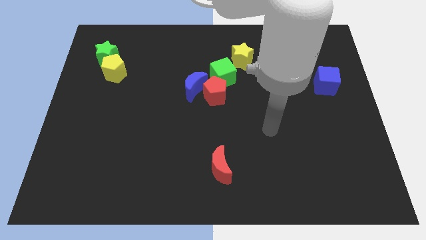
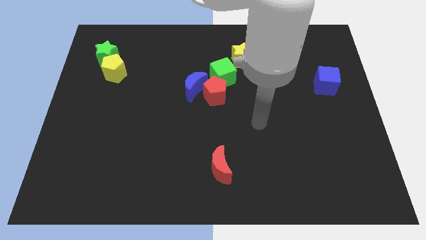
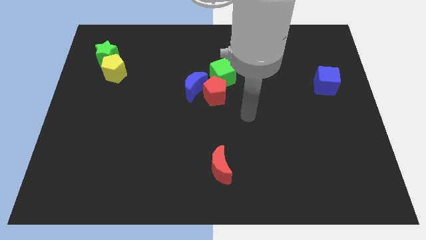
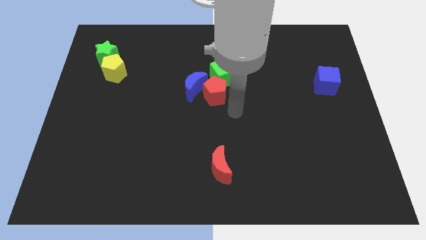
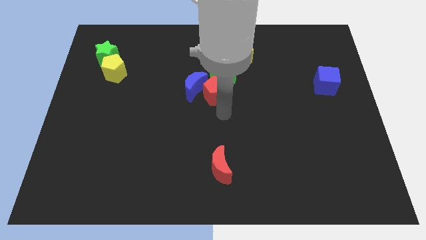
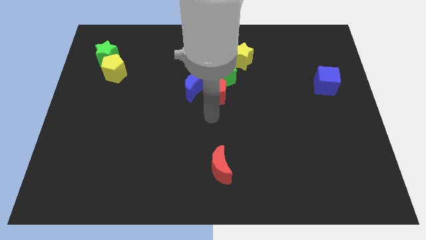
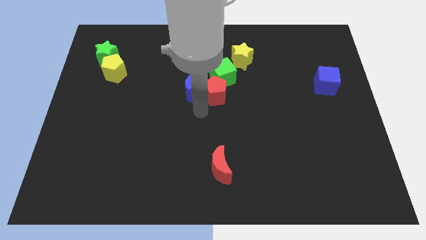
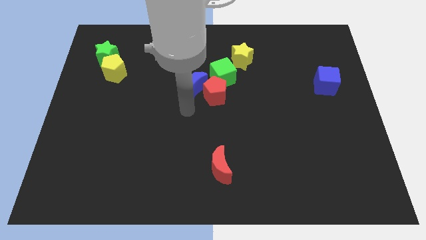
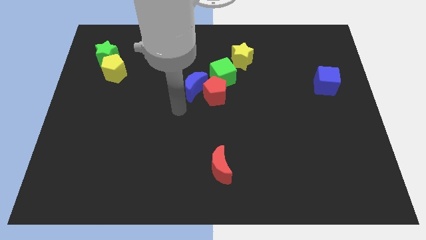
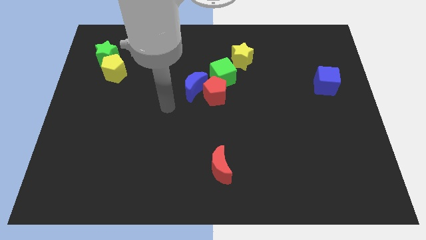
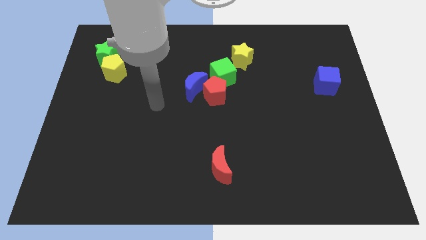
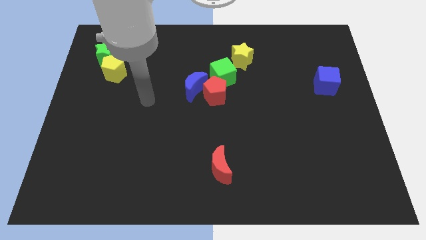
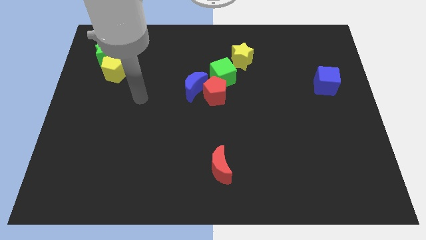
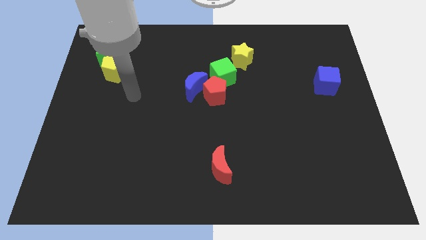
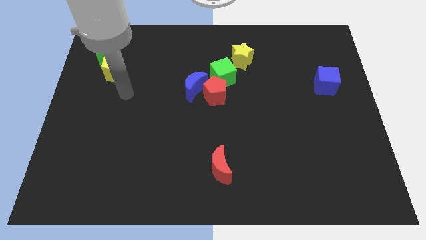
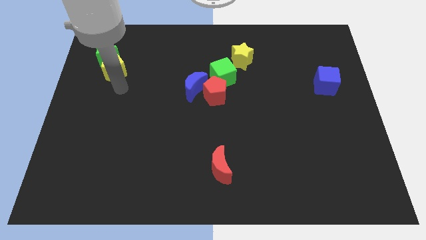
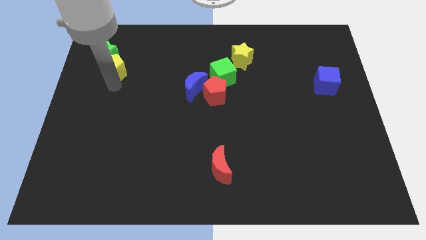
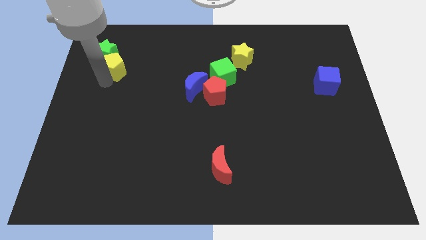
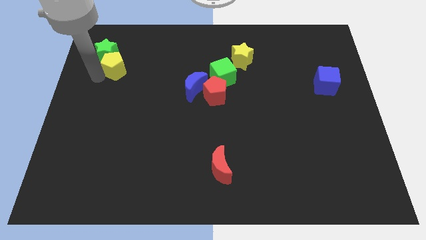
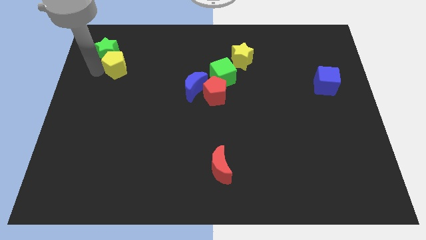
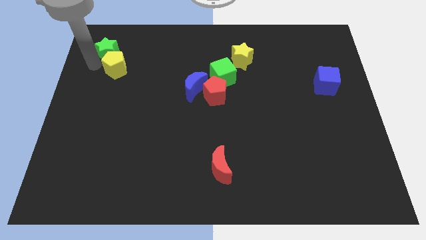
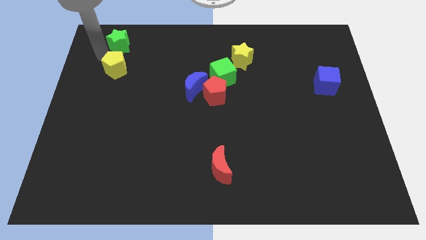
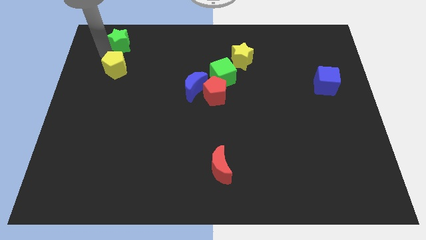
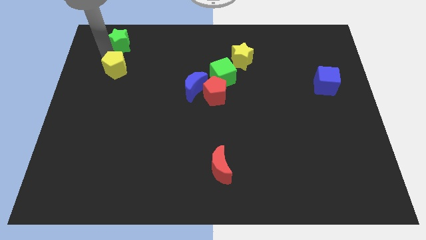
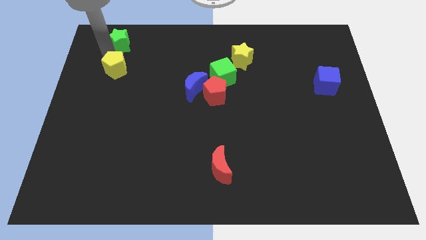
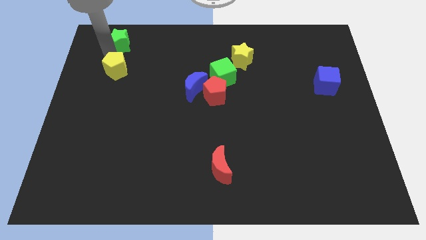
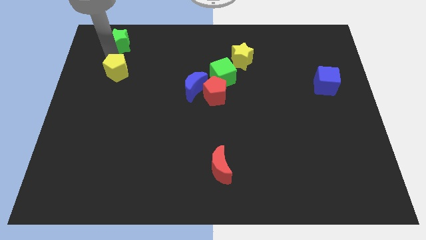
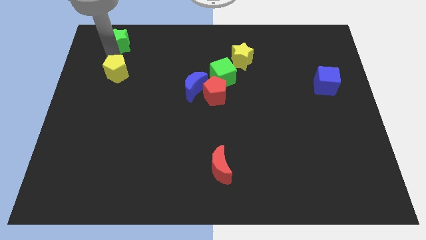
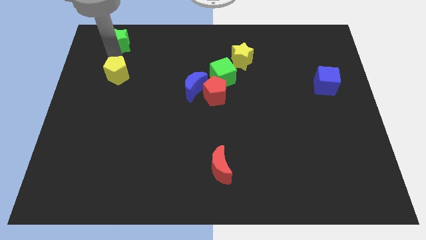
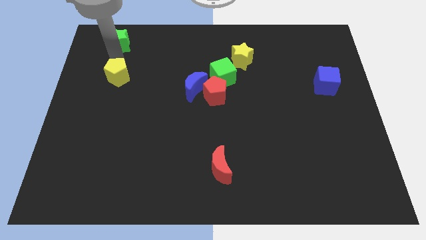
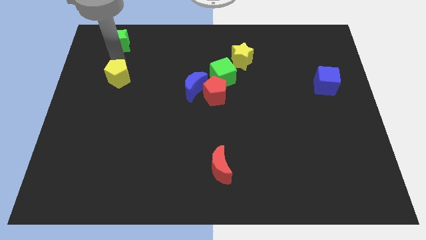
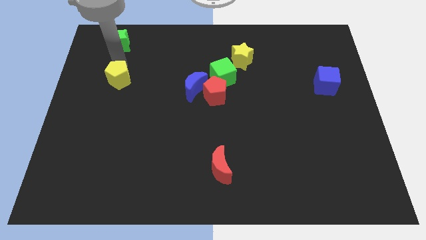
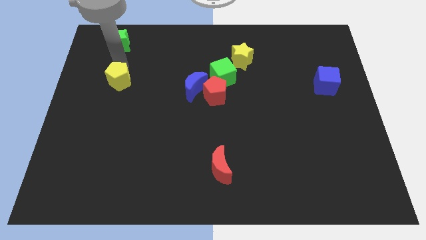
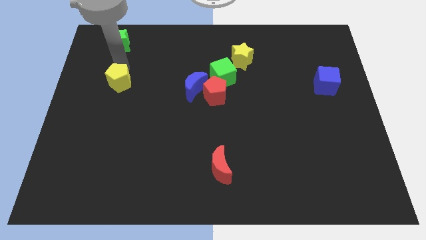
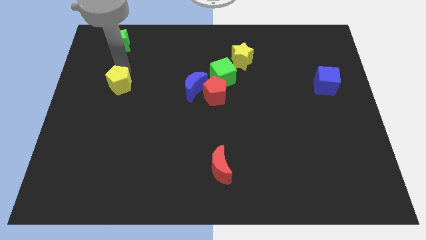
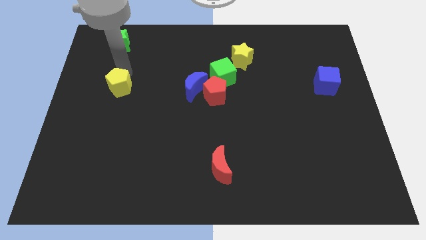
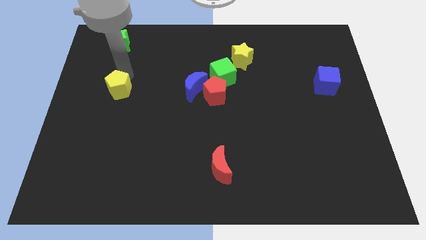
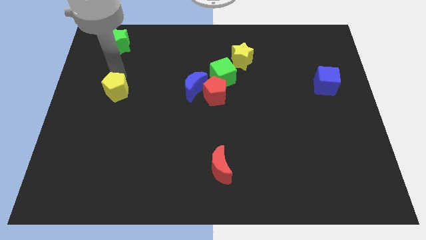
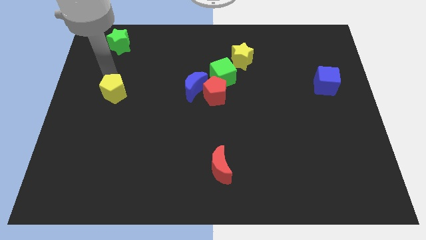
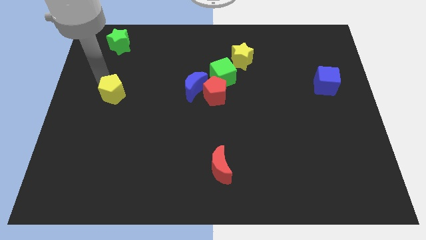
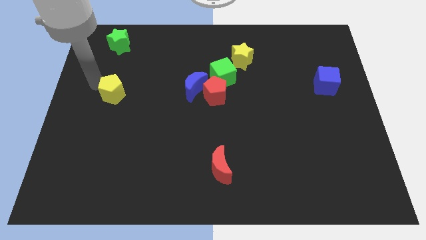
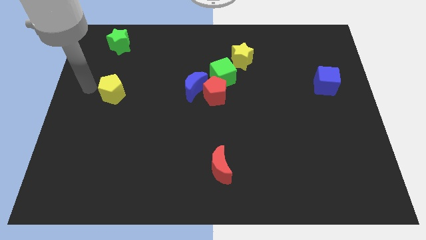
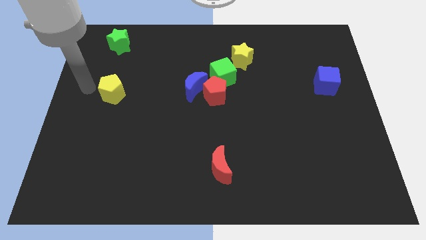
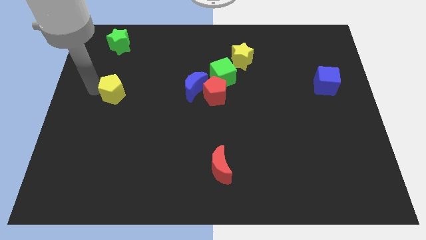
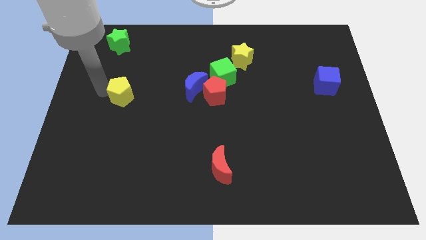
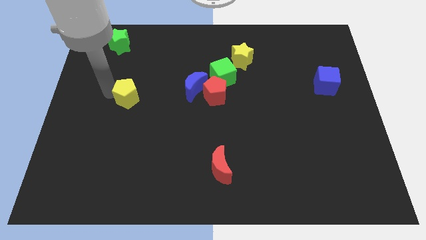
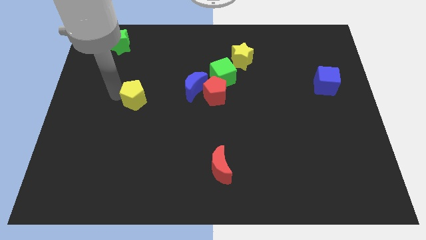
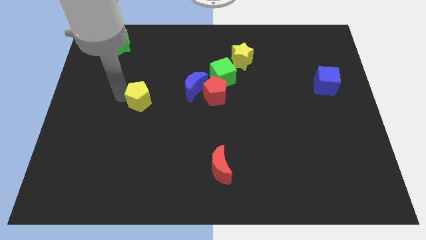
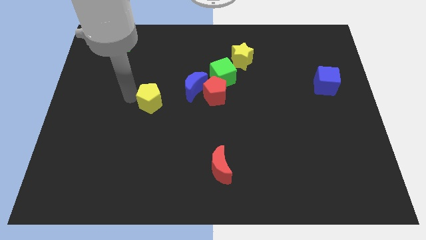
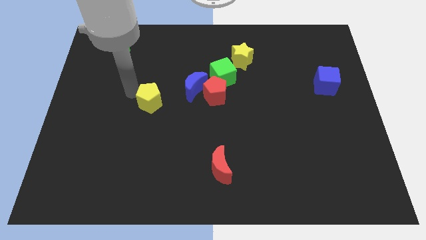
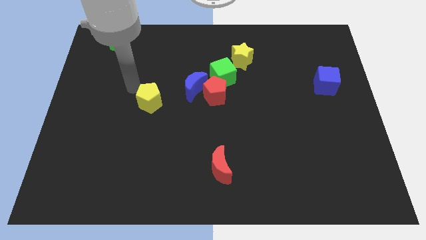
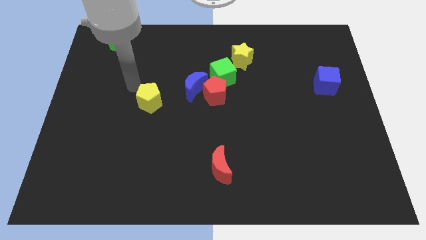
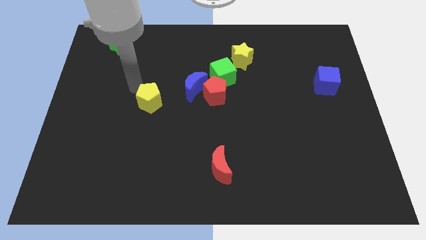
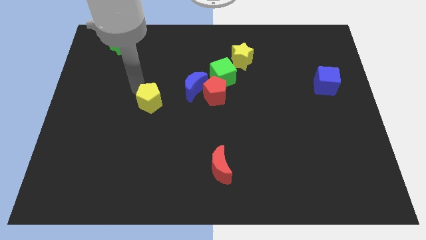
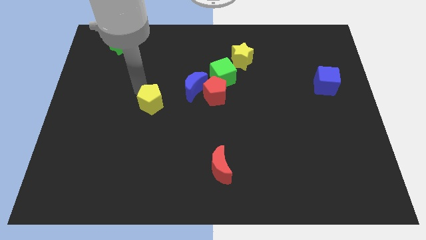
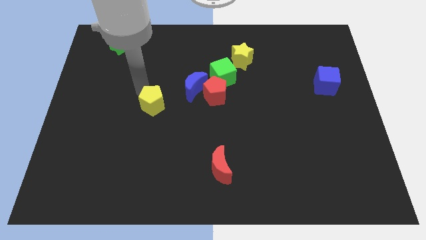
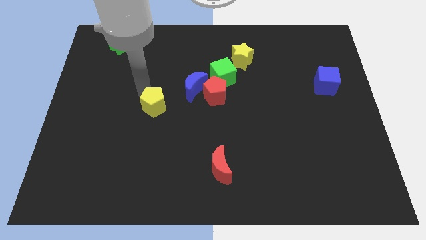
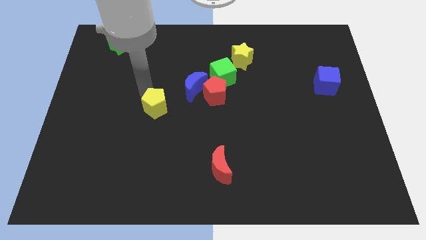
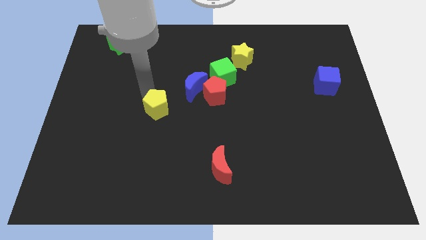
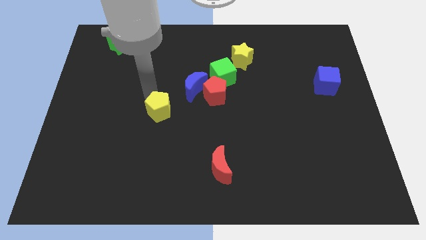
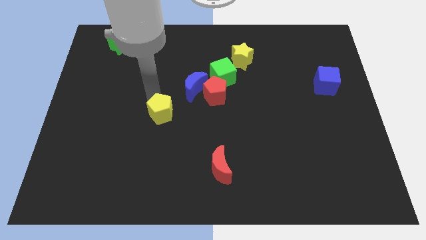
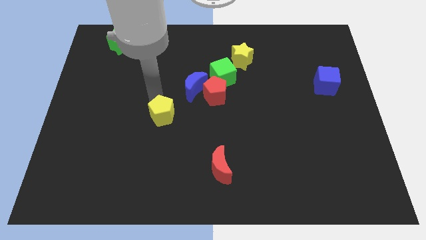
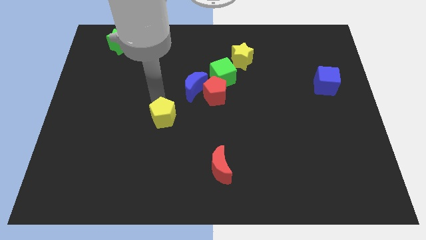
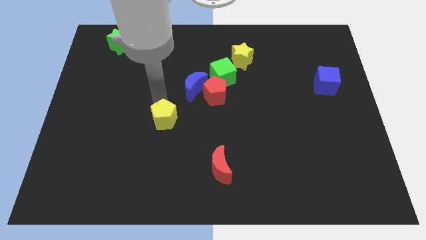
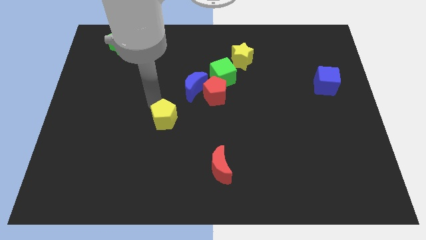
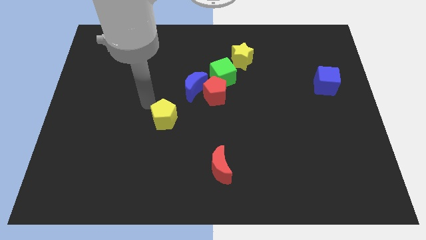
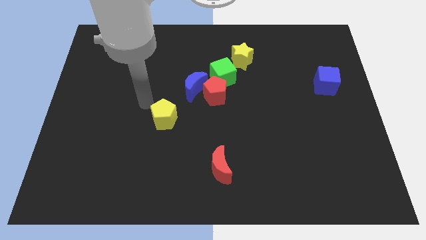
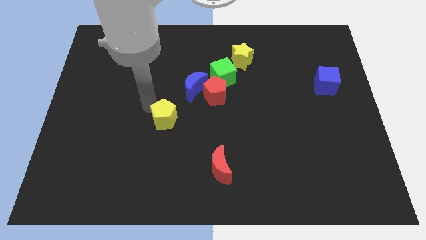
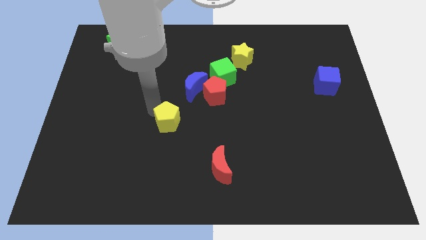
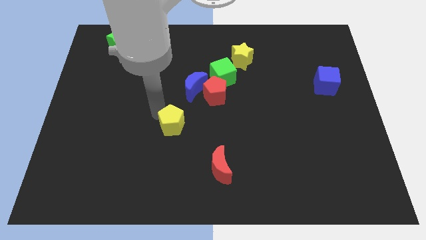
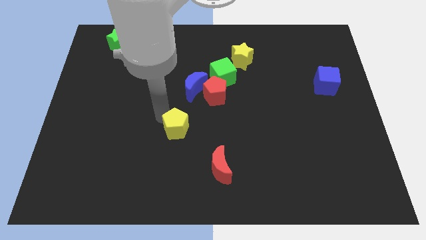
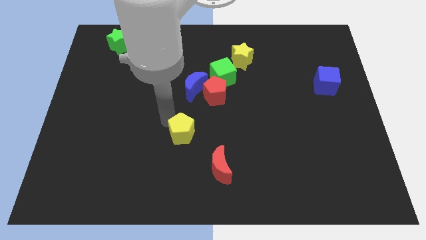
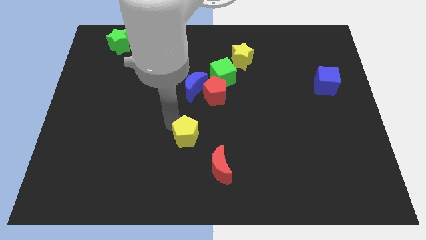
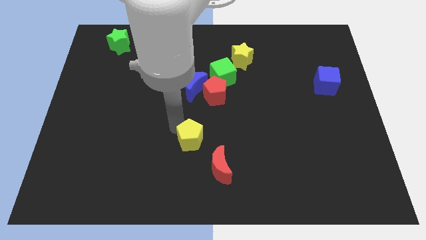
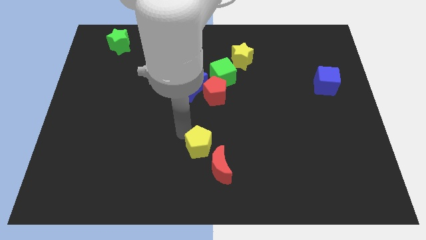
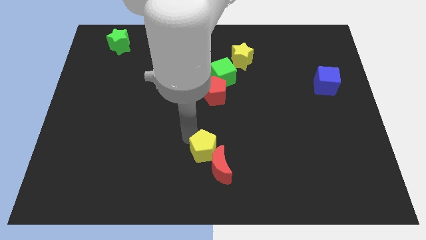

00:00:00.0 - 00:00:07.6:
slide the yellow pentagon towards the red moon

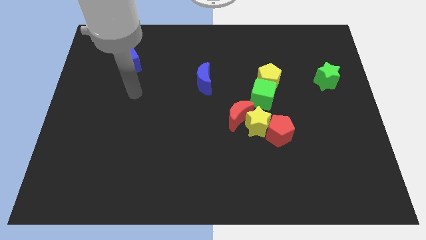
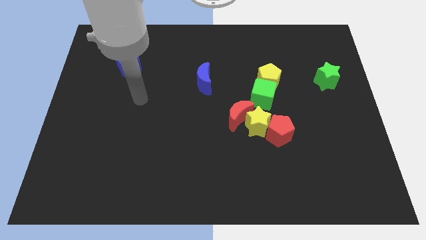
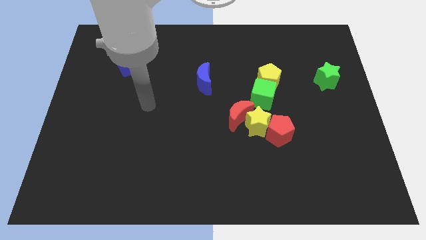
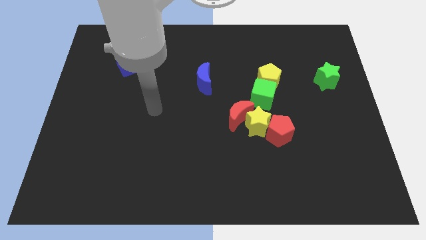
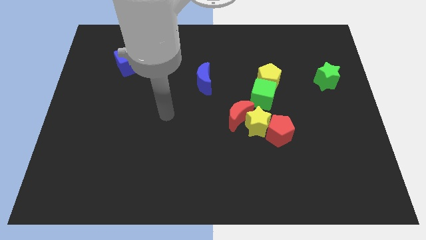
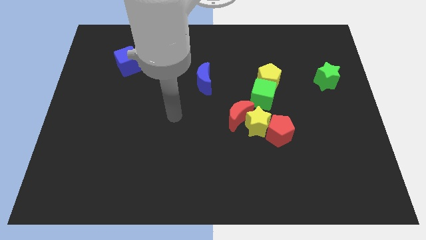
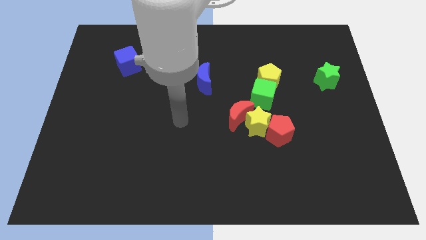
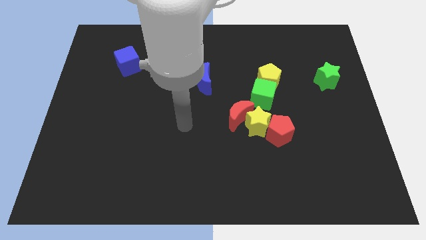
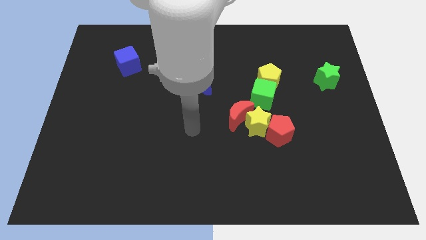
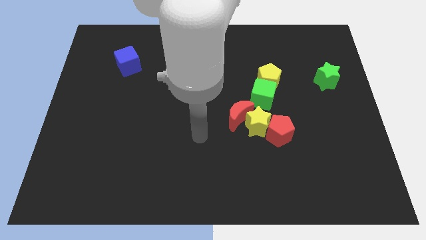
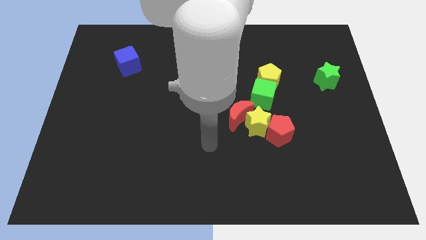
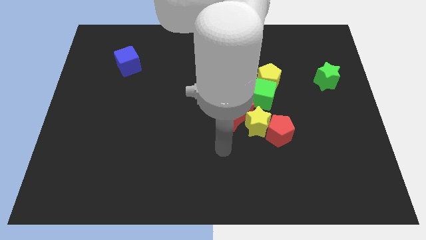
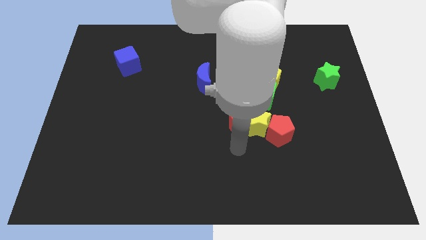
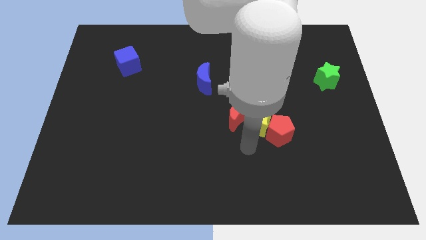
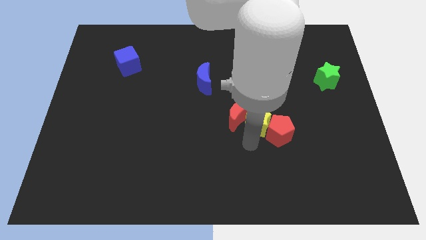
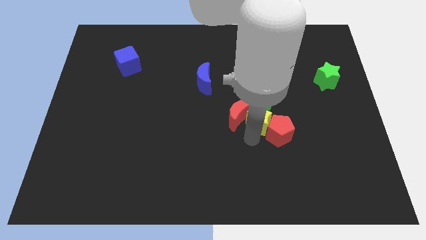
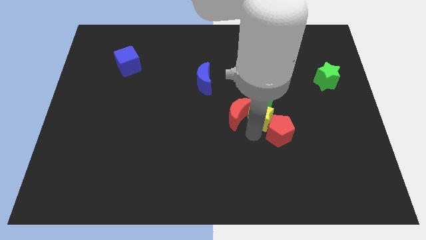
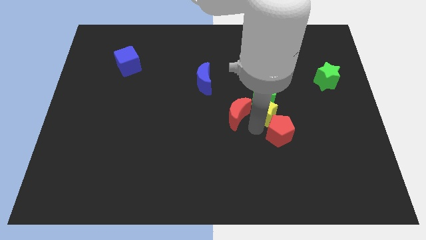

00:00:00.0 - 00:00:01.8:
push the yellow star to the green cube
